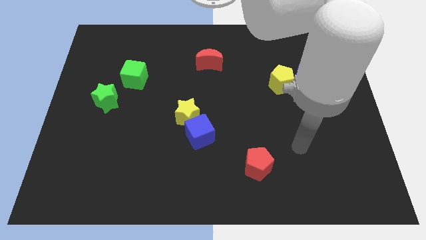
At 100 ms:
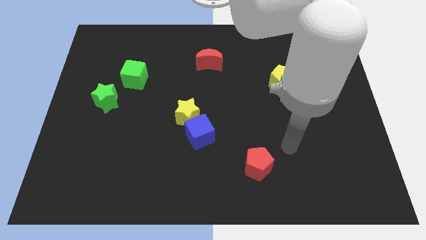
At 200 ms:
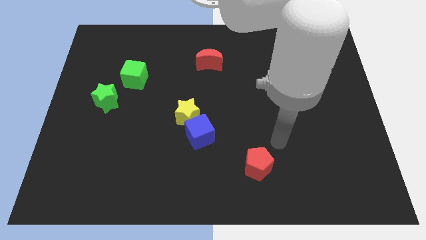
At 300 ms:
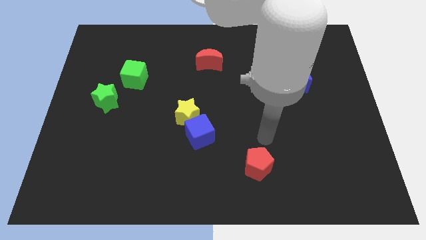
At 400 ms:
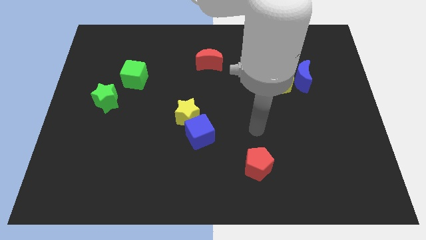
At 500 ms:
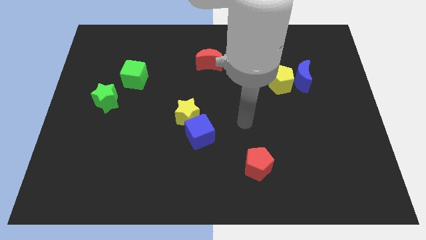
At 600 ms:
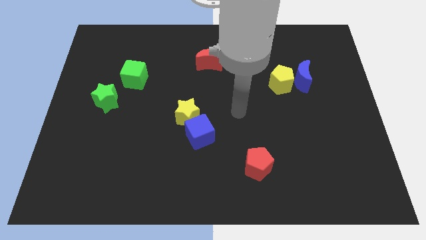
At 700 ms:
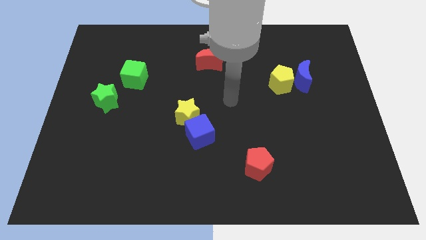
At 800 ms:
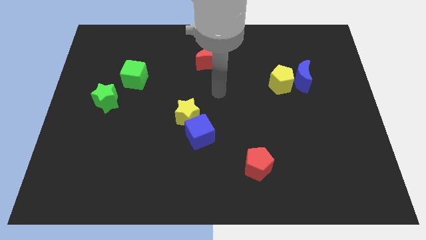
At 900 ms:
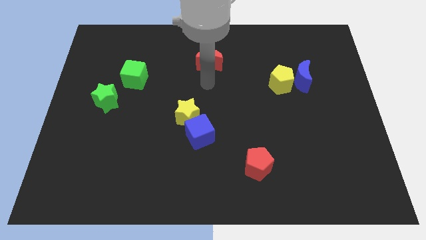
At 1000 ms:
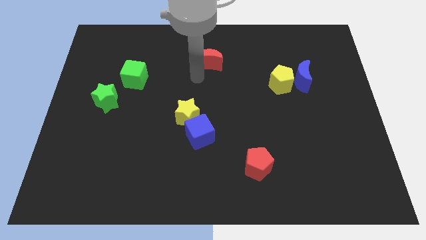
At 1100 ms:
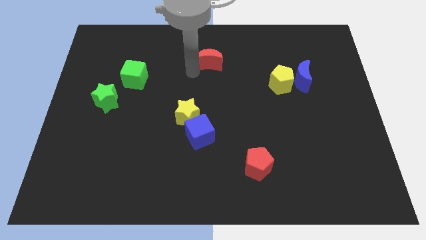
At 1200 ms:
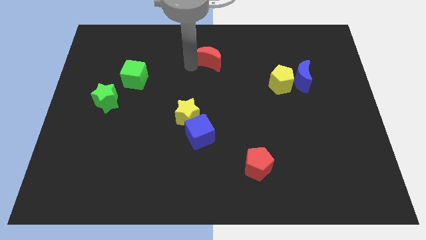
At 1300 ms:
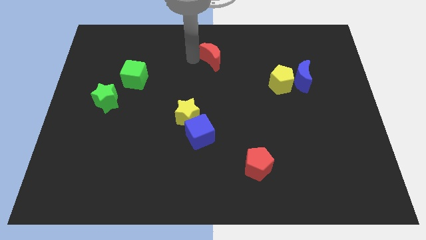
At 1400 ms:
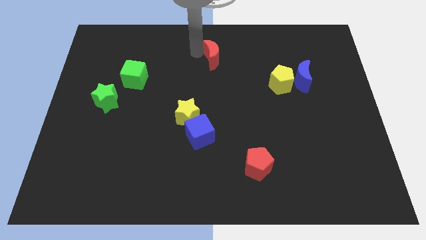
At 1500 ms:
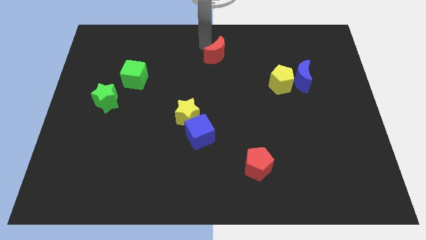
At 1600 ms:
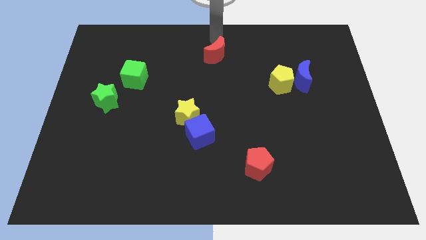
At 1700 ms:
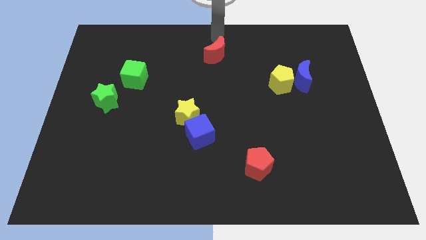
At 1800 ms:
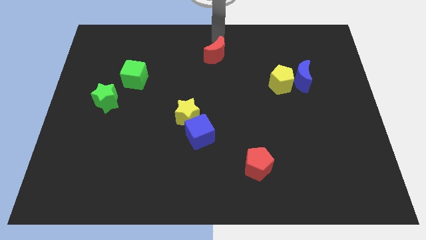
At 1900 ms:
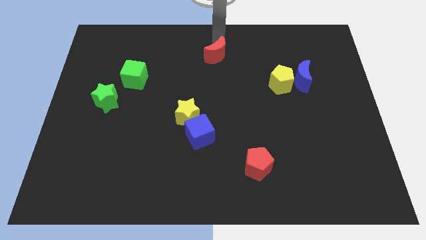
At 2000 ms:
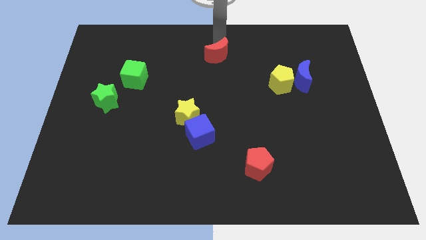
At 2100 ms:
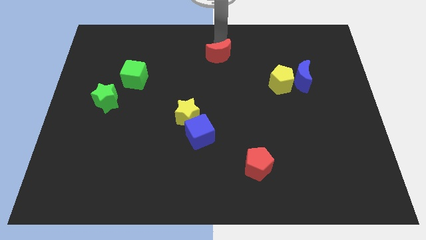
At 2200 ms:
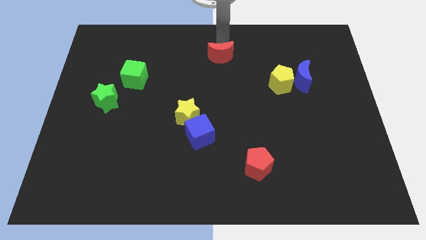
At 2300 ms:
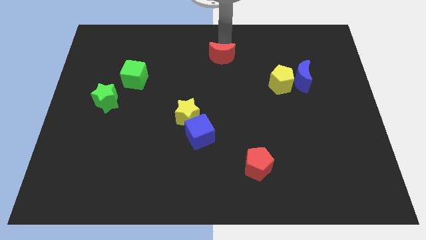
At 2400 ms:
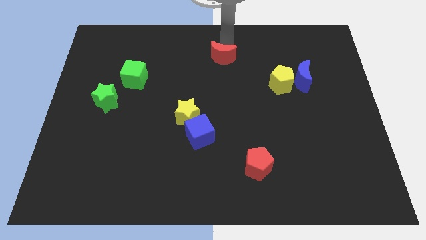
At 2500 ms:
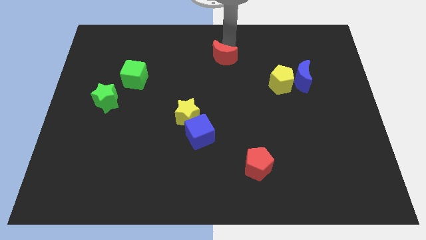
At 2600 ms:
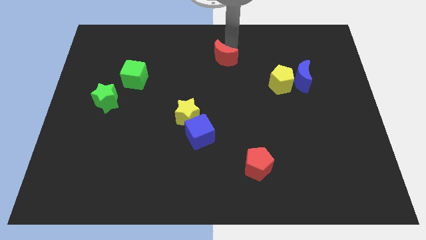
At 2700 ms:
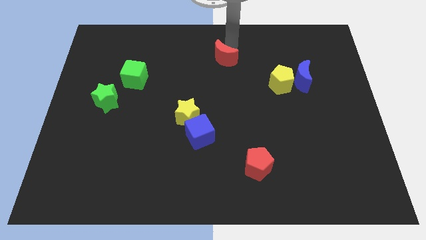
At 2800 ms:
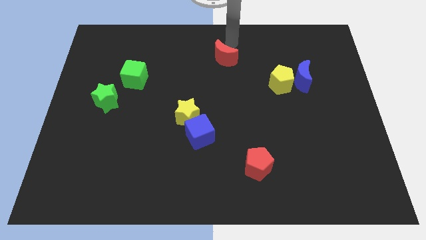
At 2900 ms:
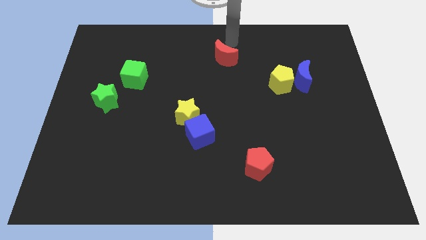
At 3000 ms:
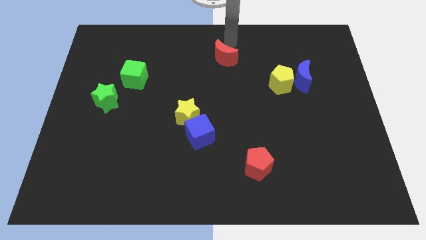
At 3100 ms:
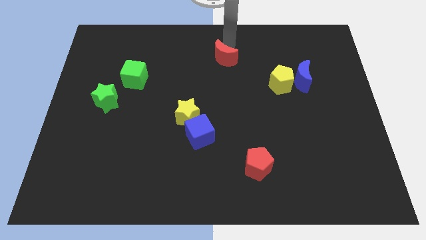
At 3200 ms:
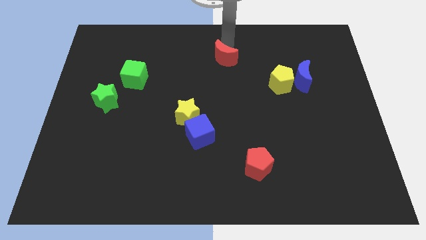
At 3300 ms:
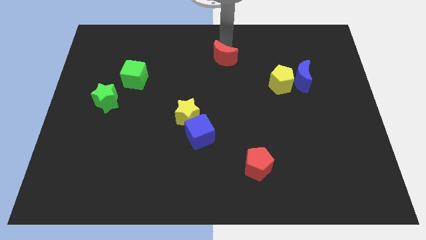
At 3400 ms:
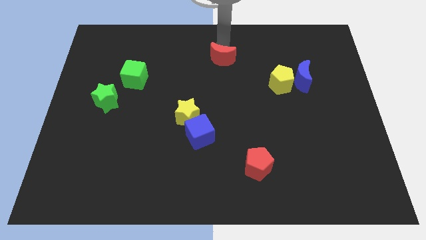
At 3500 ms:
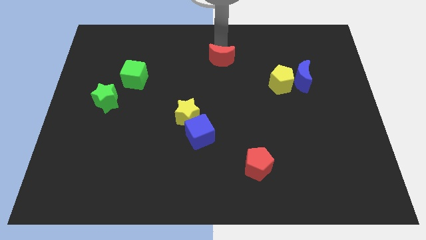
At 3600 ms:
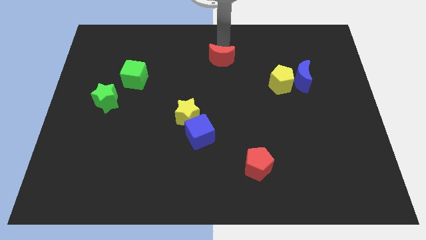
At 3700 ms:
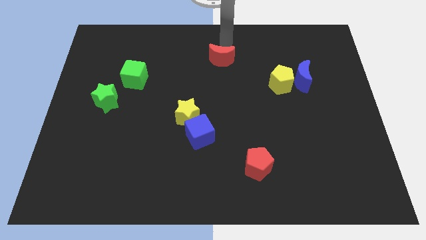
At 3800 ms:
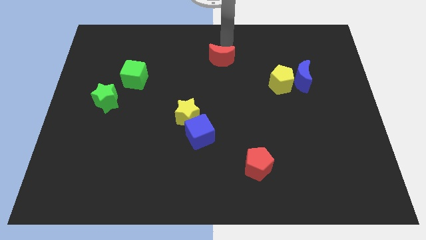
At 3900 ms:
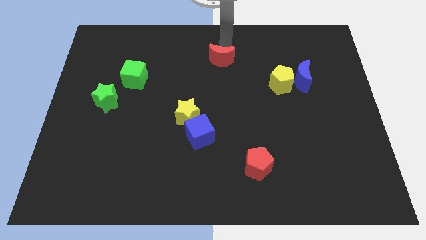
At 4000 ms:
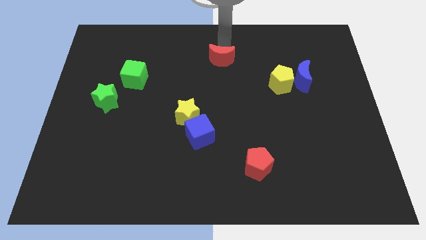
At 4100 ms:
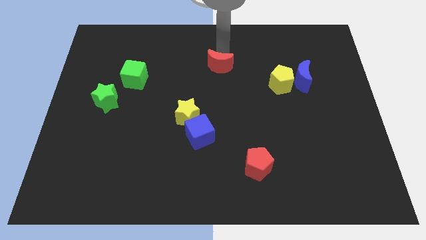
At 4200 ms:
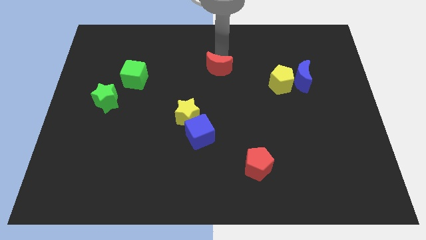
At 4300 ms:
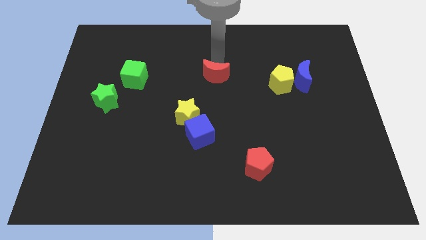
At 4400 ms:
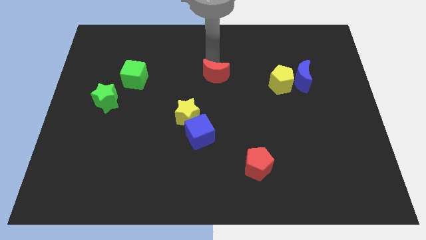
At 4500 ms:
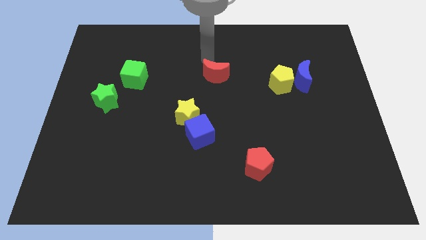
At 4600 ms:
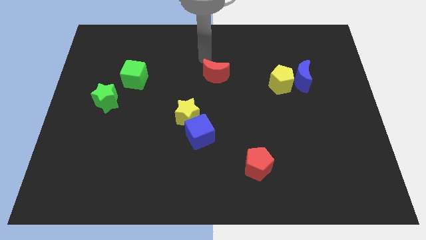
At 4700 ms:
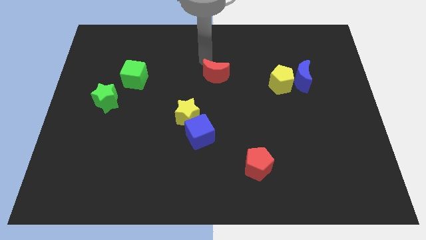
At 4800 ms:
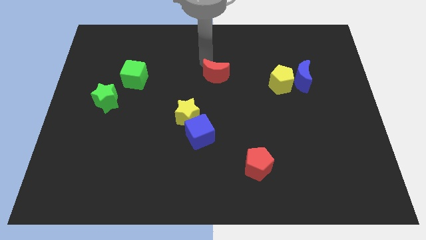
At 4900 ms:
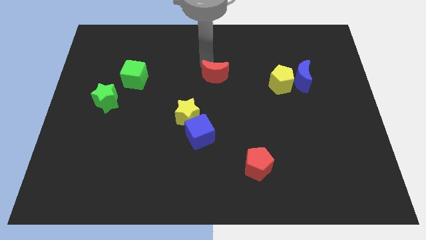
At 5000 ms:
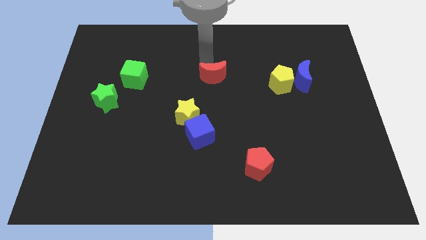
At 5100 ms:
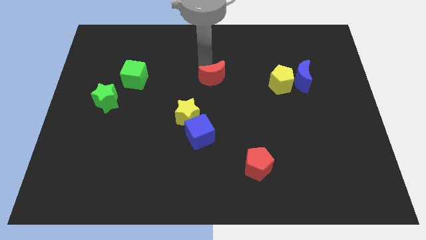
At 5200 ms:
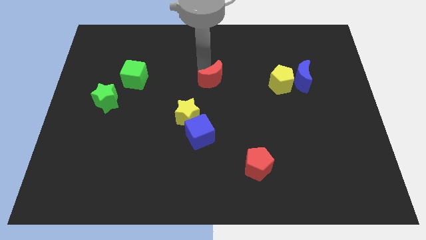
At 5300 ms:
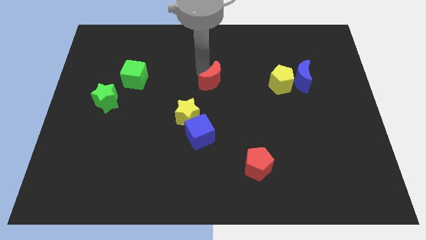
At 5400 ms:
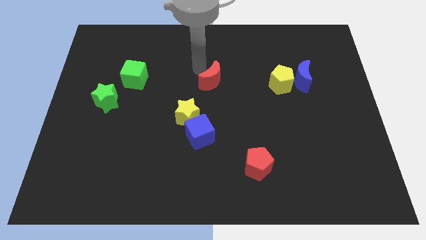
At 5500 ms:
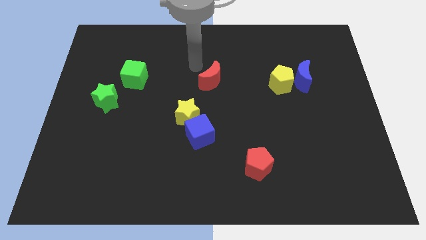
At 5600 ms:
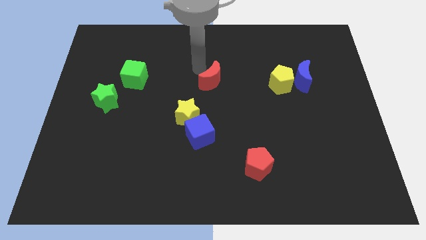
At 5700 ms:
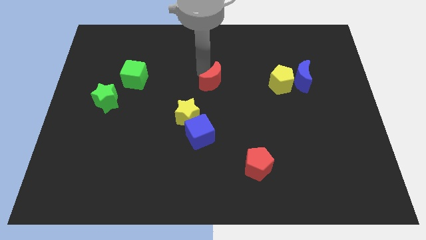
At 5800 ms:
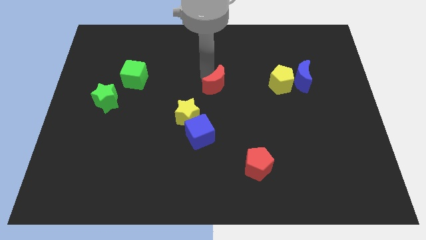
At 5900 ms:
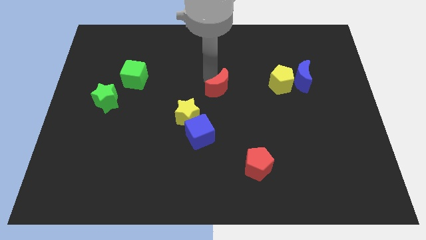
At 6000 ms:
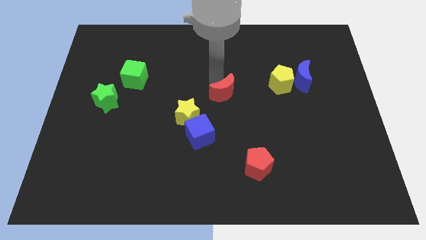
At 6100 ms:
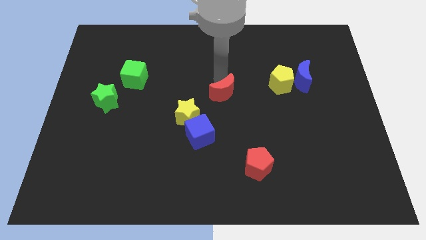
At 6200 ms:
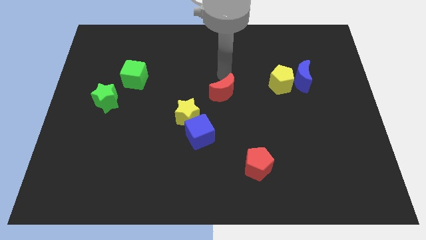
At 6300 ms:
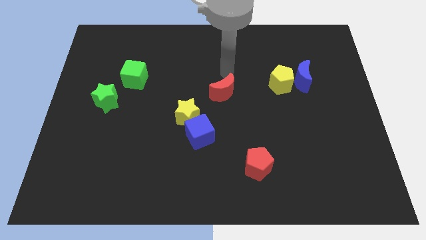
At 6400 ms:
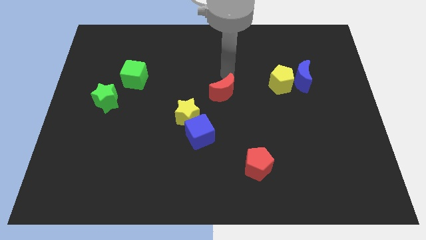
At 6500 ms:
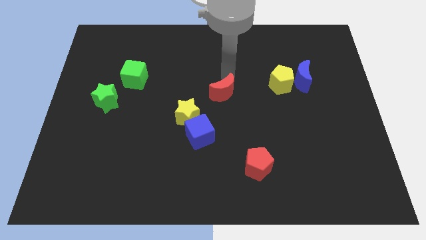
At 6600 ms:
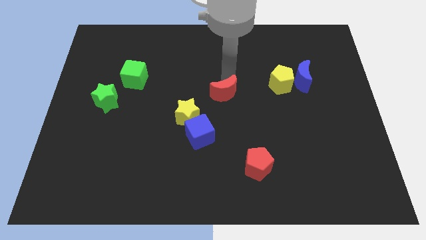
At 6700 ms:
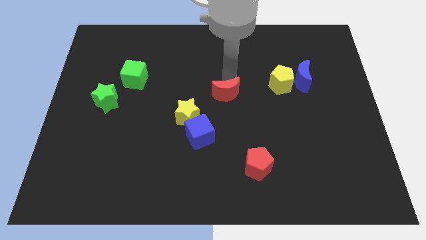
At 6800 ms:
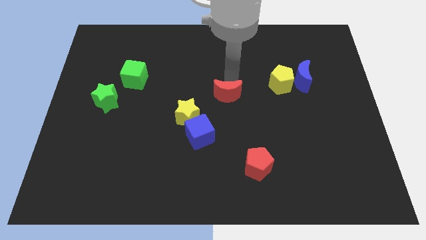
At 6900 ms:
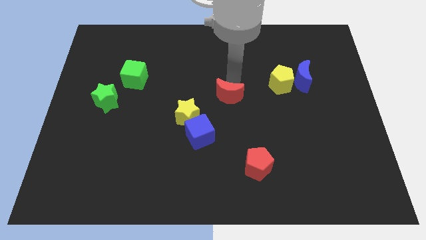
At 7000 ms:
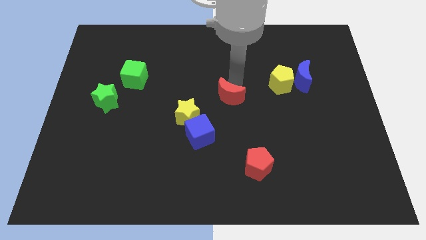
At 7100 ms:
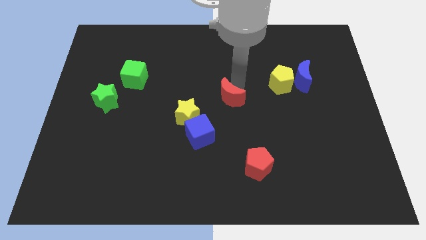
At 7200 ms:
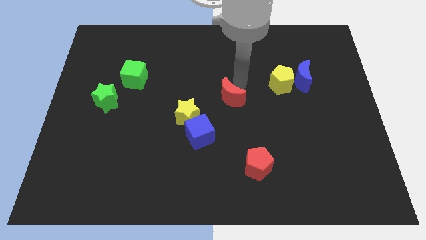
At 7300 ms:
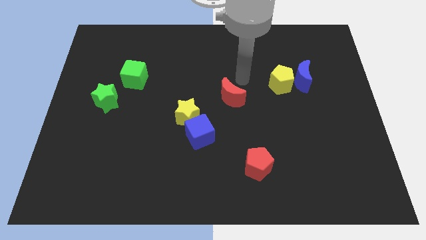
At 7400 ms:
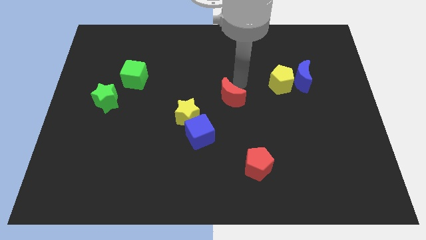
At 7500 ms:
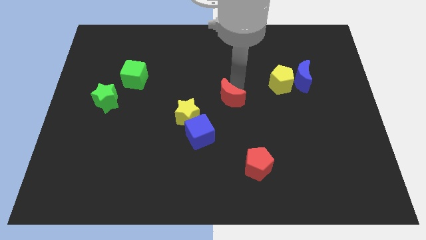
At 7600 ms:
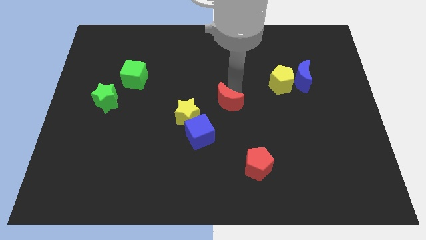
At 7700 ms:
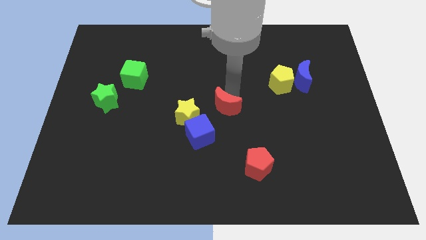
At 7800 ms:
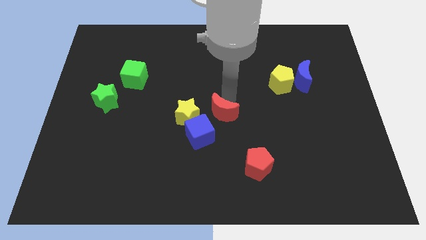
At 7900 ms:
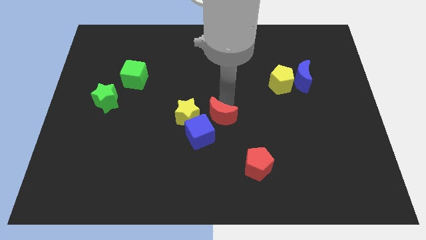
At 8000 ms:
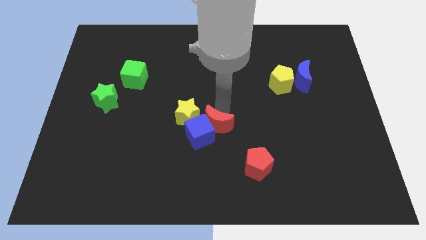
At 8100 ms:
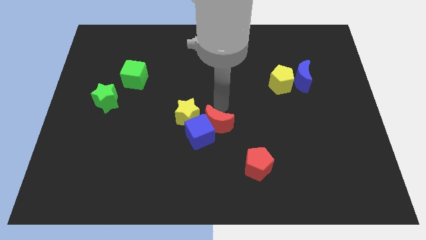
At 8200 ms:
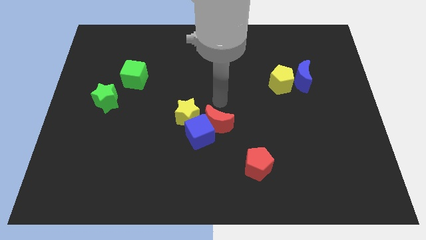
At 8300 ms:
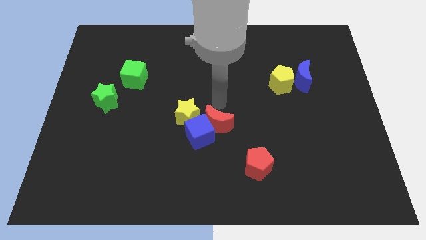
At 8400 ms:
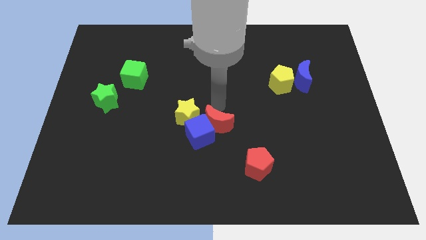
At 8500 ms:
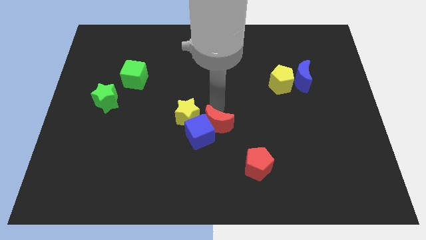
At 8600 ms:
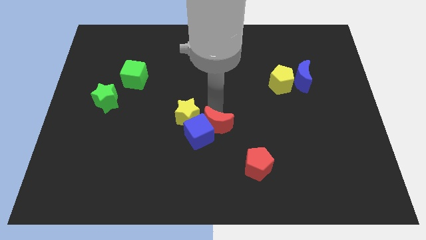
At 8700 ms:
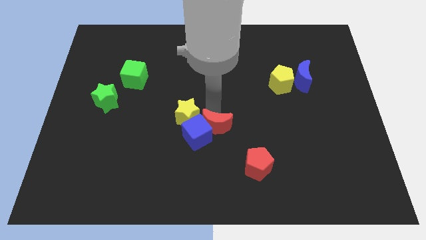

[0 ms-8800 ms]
push the red moon downwards
